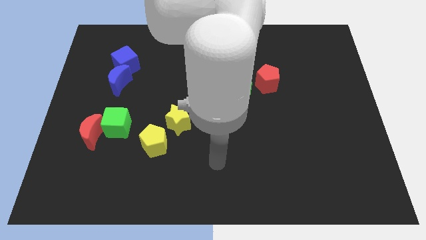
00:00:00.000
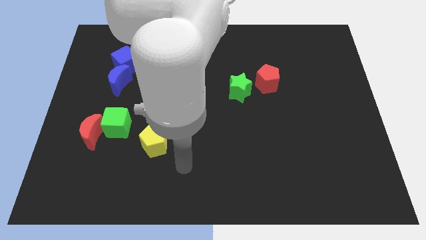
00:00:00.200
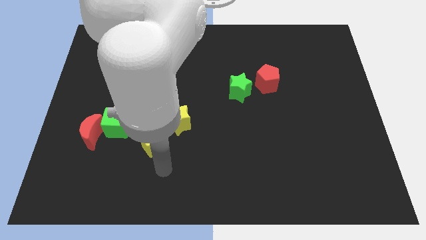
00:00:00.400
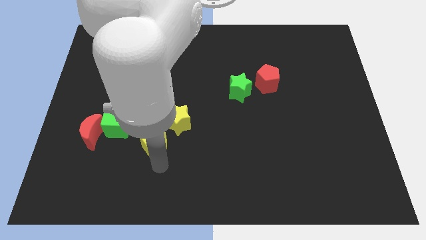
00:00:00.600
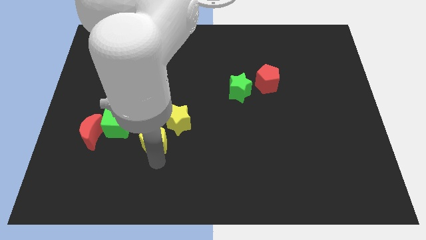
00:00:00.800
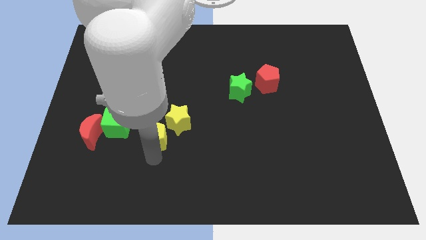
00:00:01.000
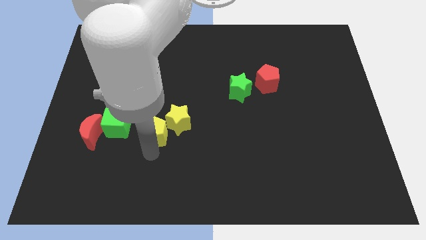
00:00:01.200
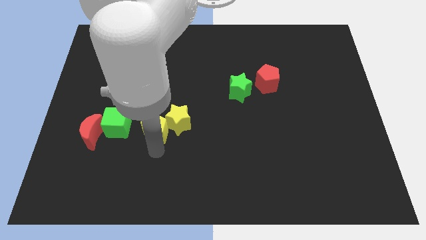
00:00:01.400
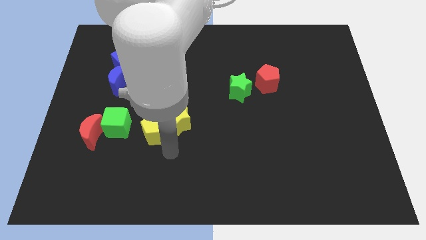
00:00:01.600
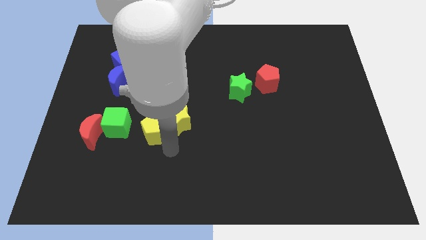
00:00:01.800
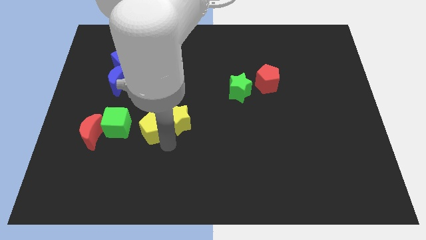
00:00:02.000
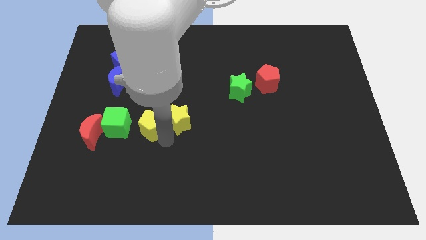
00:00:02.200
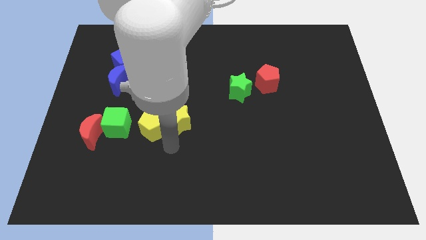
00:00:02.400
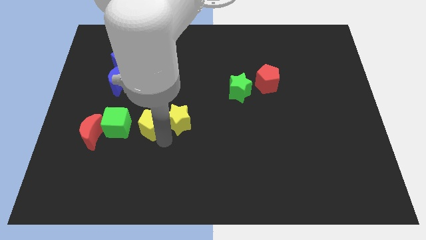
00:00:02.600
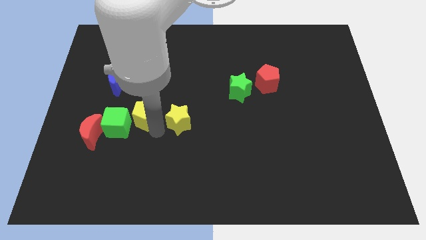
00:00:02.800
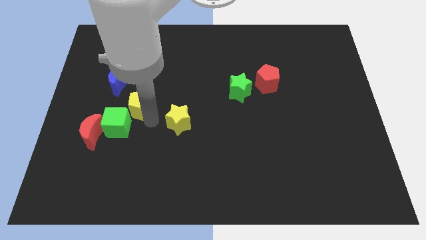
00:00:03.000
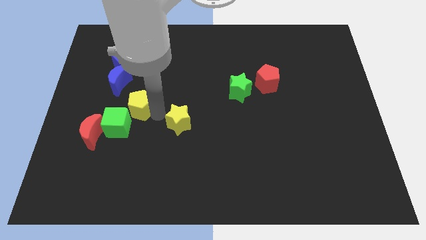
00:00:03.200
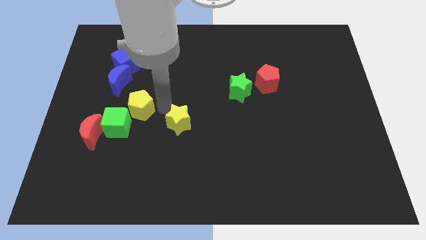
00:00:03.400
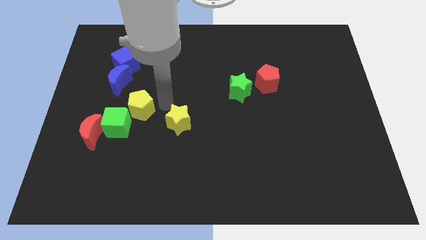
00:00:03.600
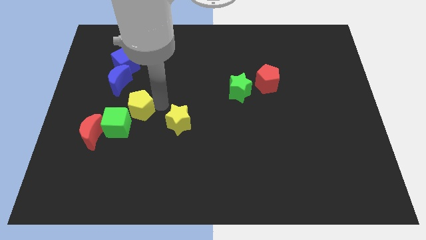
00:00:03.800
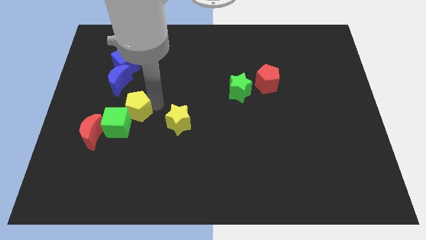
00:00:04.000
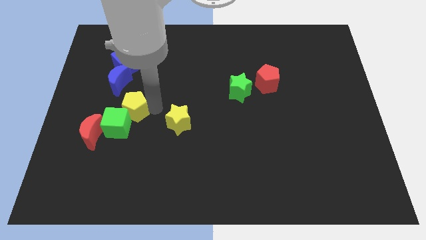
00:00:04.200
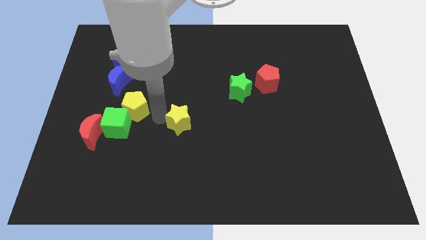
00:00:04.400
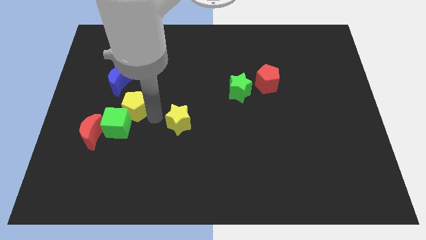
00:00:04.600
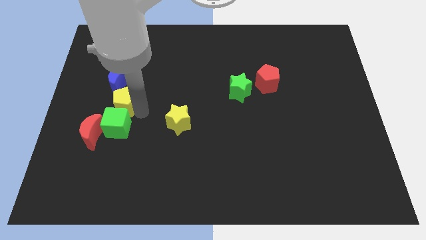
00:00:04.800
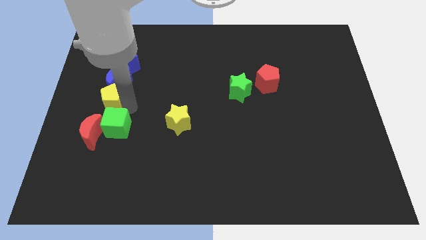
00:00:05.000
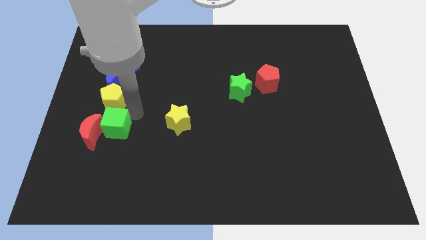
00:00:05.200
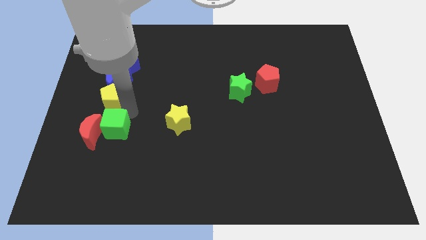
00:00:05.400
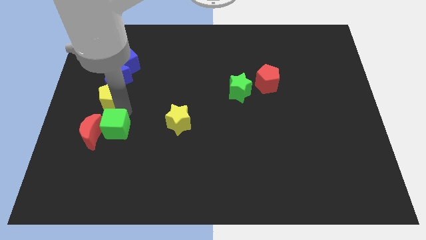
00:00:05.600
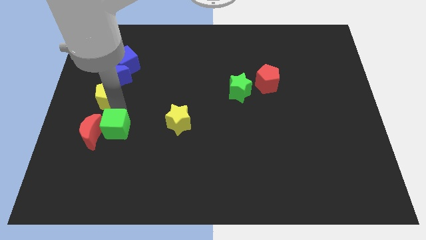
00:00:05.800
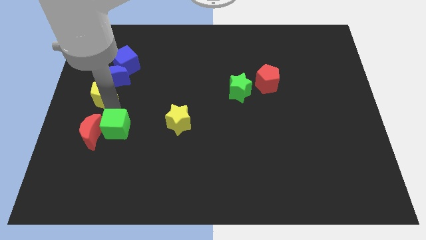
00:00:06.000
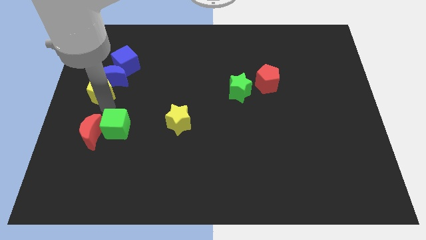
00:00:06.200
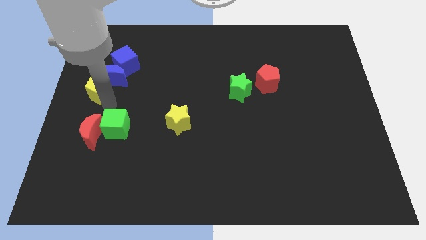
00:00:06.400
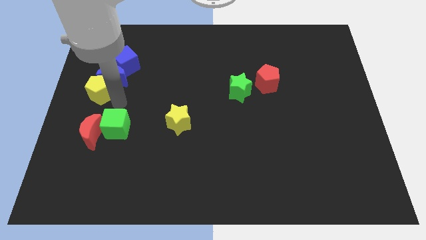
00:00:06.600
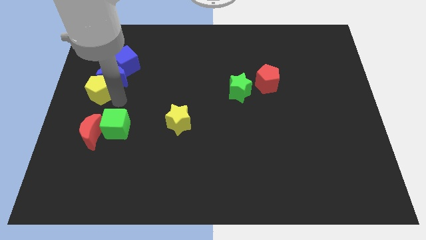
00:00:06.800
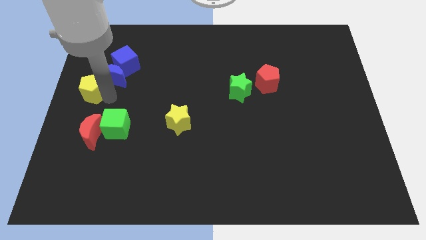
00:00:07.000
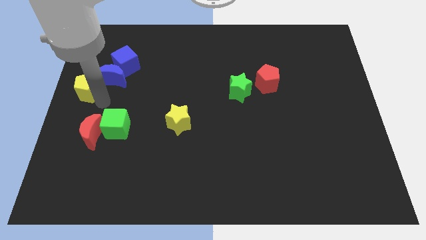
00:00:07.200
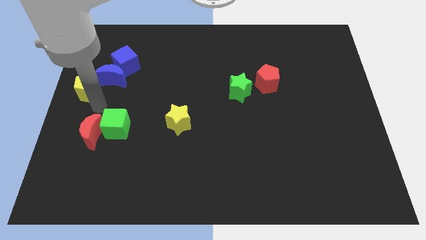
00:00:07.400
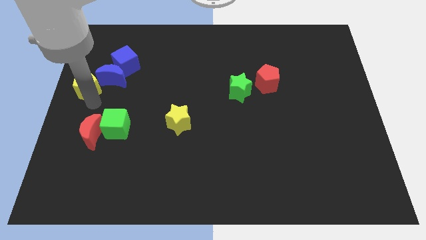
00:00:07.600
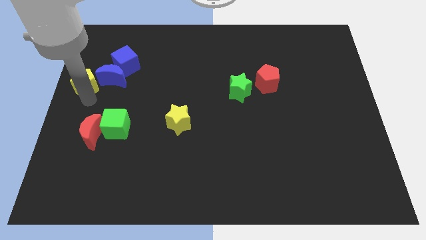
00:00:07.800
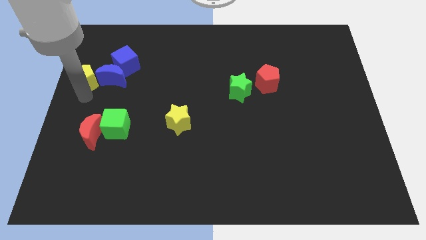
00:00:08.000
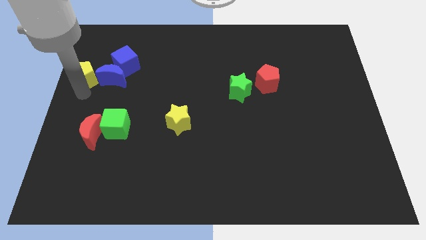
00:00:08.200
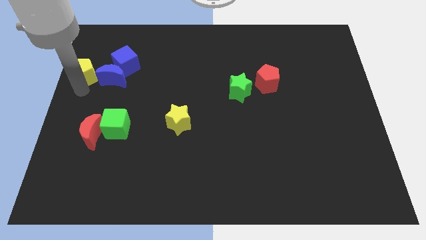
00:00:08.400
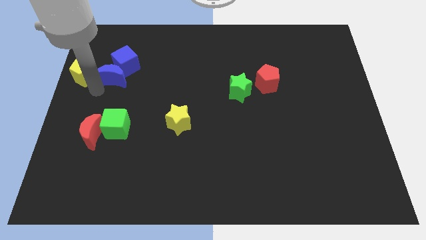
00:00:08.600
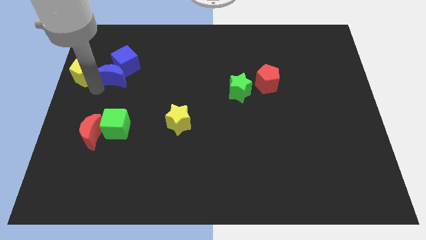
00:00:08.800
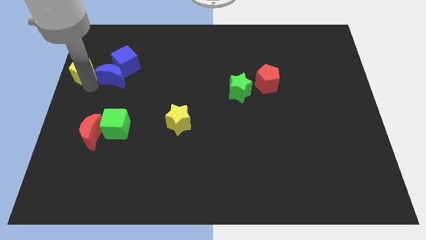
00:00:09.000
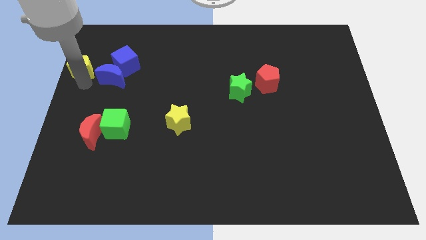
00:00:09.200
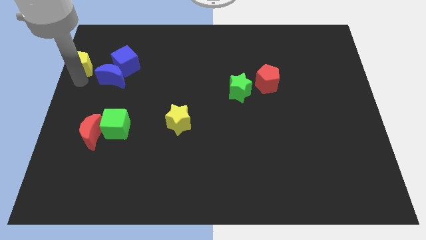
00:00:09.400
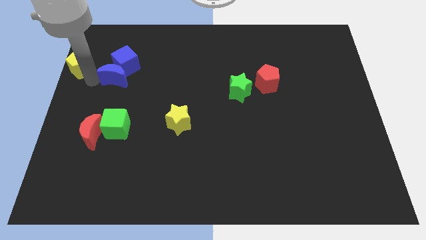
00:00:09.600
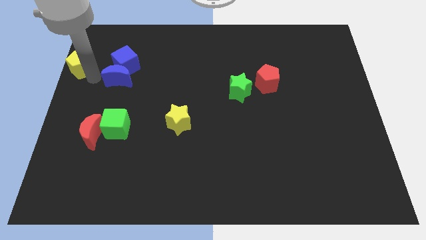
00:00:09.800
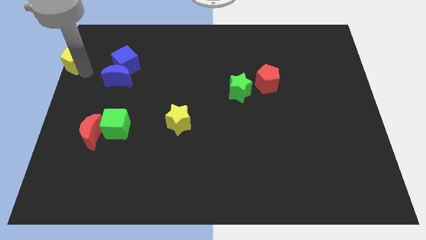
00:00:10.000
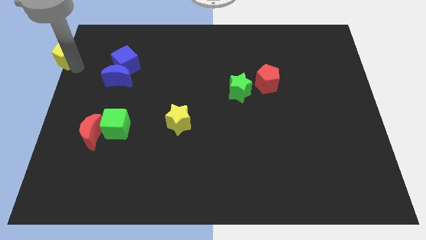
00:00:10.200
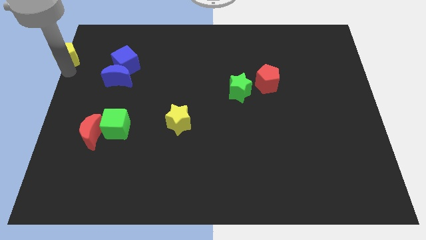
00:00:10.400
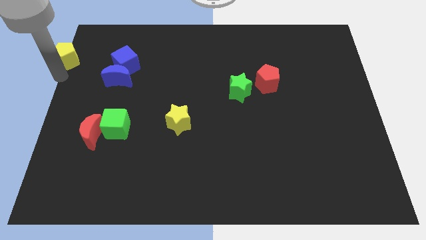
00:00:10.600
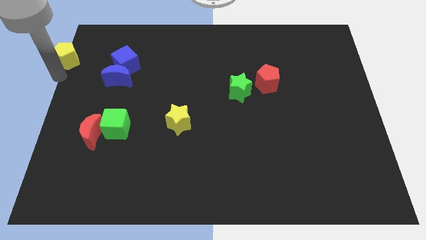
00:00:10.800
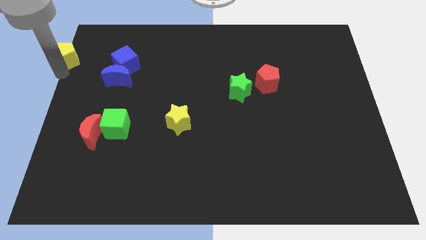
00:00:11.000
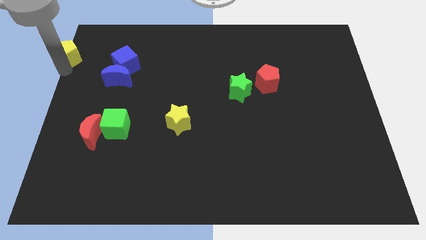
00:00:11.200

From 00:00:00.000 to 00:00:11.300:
push the yellow pentagon to the top left
